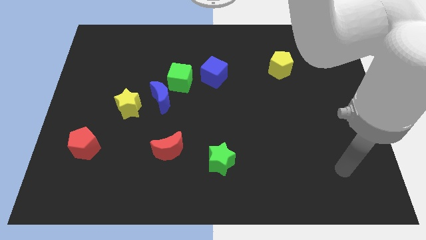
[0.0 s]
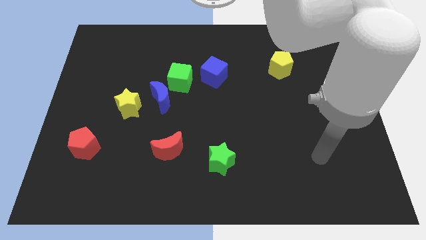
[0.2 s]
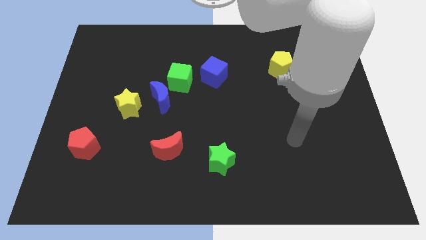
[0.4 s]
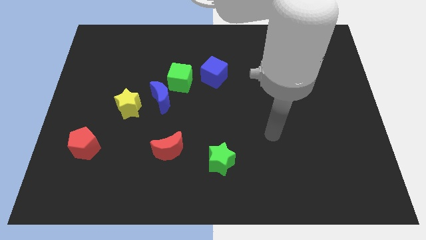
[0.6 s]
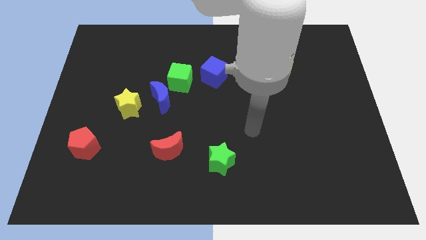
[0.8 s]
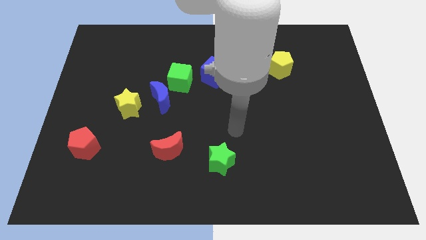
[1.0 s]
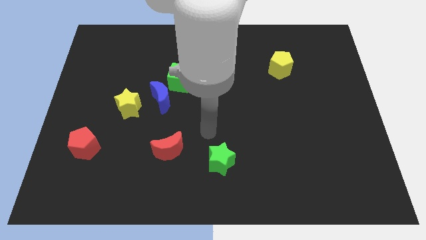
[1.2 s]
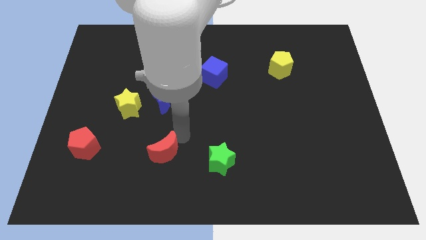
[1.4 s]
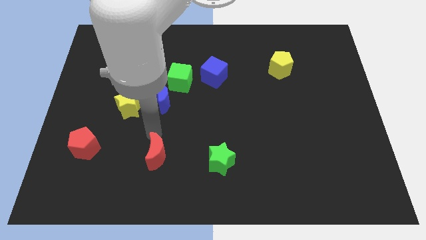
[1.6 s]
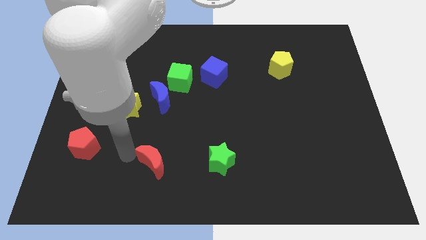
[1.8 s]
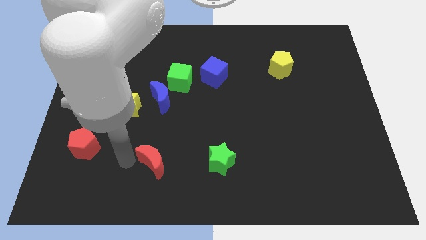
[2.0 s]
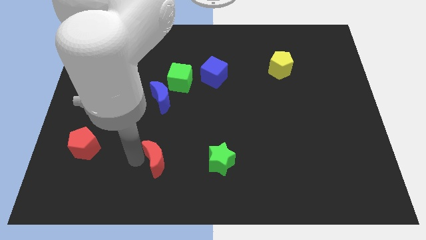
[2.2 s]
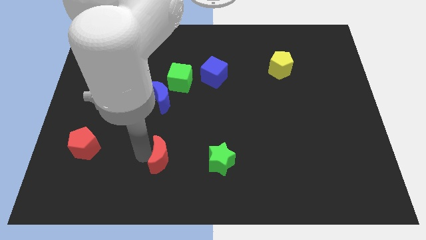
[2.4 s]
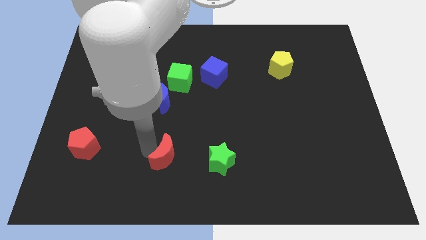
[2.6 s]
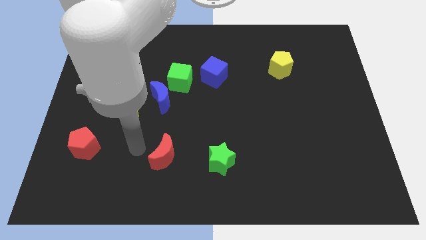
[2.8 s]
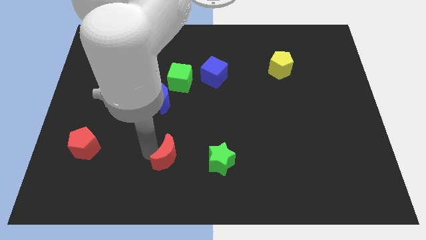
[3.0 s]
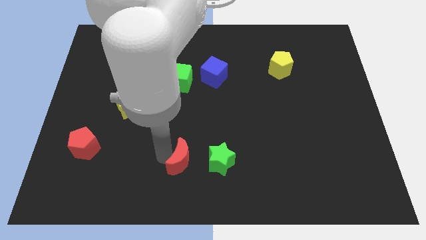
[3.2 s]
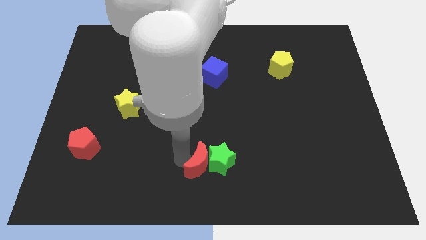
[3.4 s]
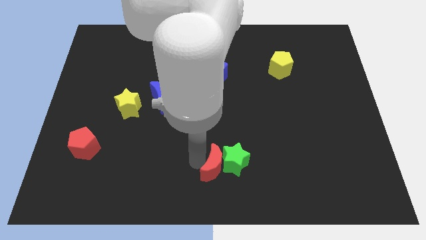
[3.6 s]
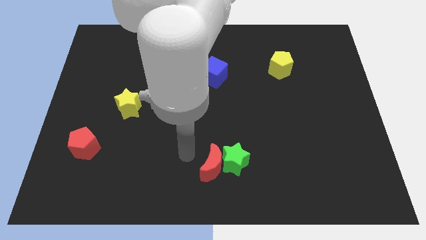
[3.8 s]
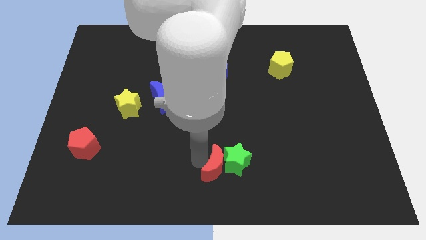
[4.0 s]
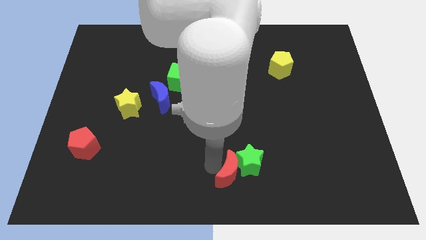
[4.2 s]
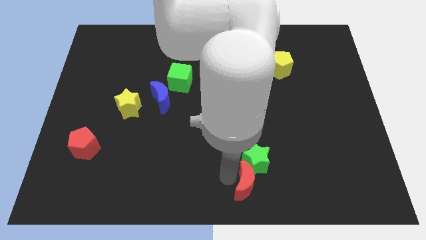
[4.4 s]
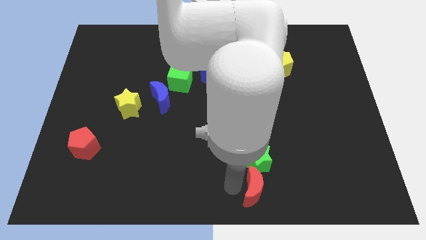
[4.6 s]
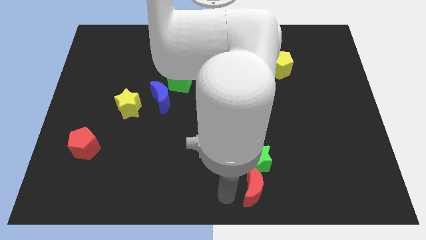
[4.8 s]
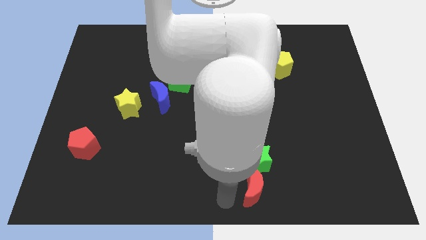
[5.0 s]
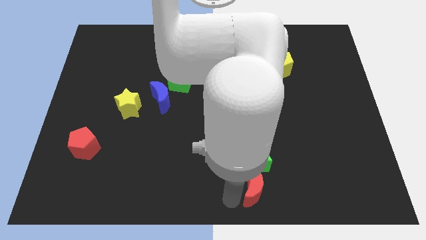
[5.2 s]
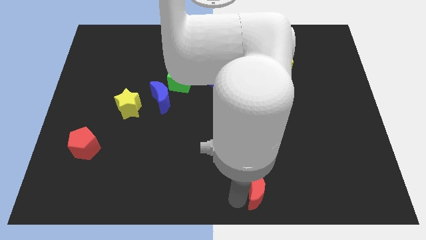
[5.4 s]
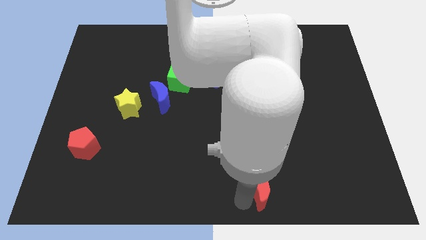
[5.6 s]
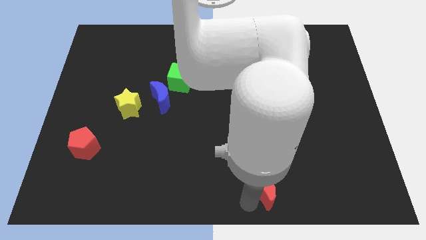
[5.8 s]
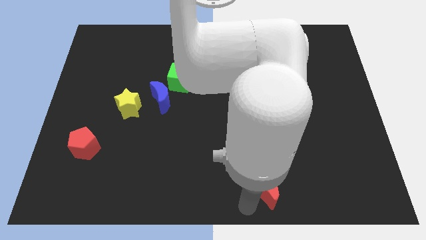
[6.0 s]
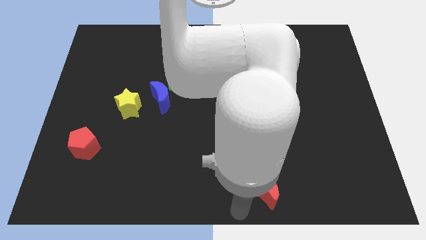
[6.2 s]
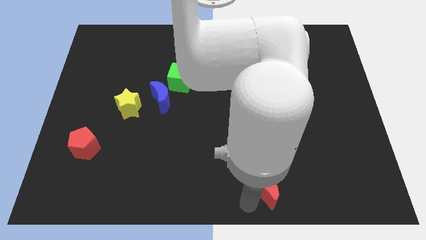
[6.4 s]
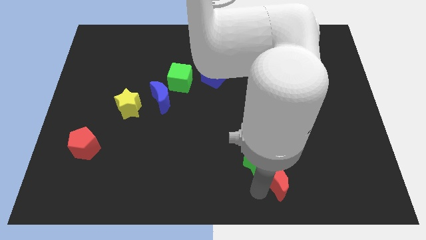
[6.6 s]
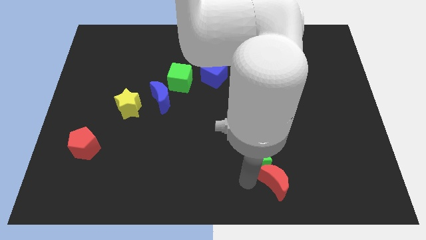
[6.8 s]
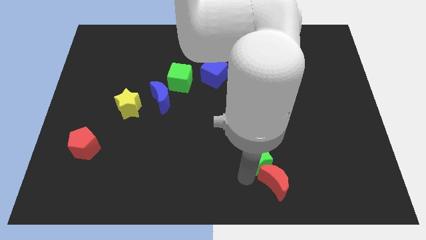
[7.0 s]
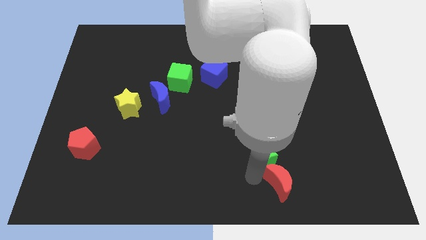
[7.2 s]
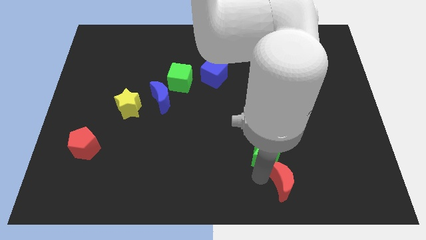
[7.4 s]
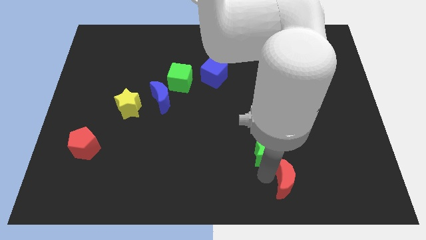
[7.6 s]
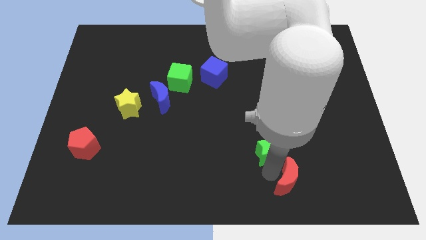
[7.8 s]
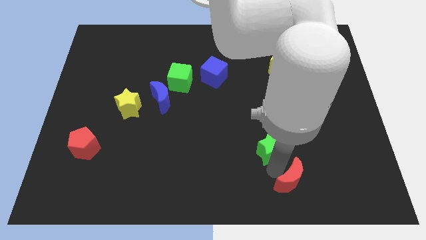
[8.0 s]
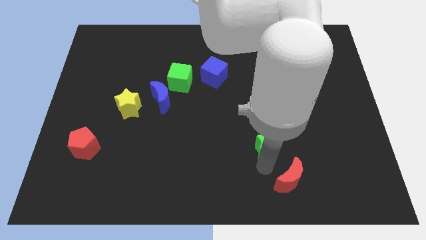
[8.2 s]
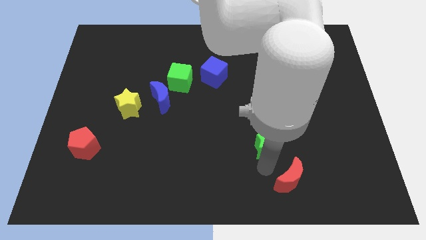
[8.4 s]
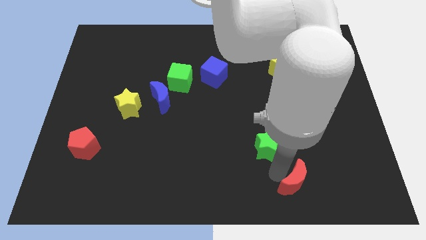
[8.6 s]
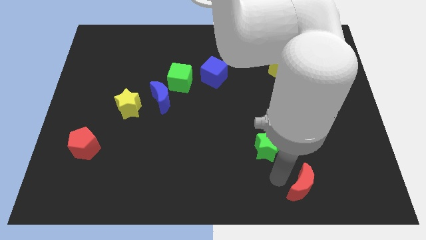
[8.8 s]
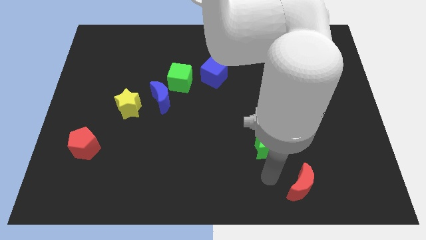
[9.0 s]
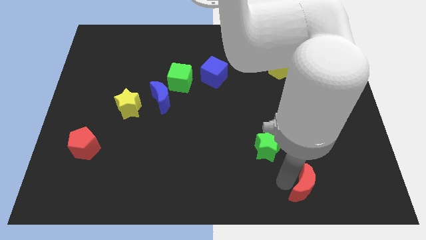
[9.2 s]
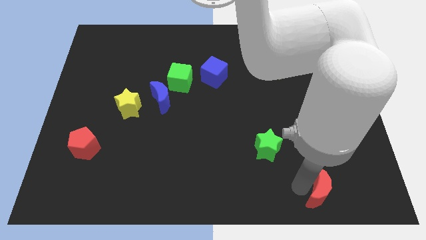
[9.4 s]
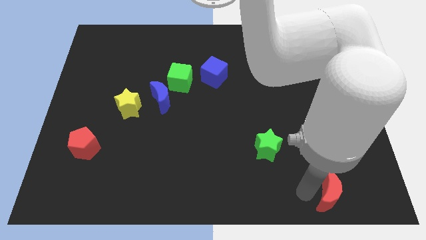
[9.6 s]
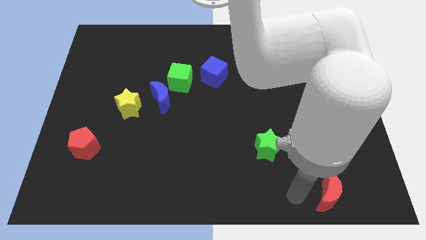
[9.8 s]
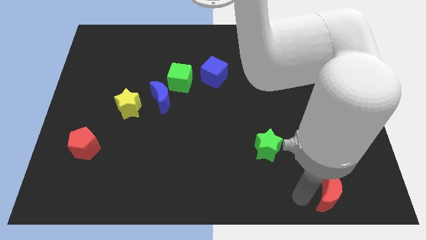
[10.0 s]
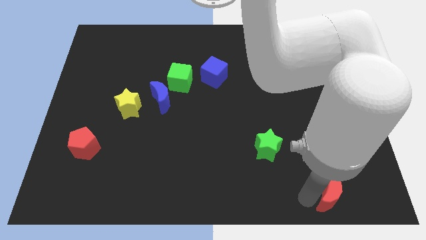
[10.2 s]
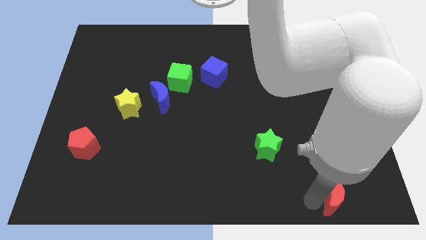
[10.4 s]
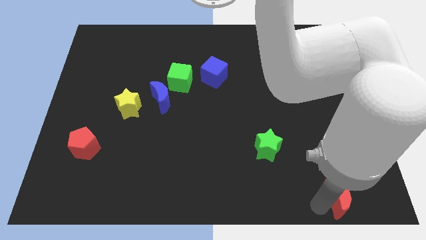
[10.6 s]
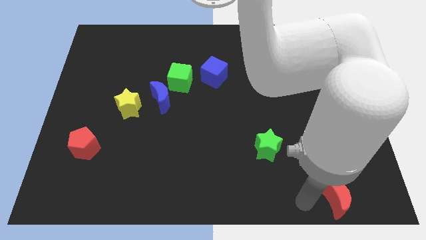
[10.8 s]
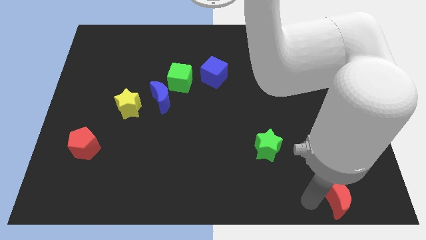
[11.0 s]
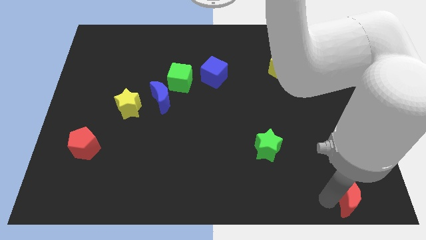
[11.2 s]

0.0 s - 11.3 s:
put the red moon to the lower right corner
